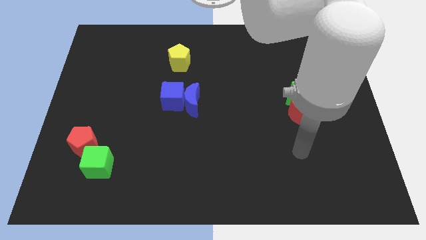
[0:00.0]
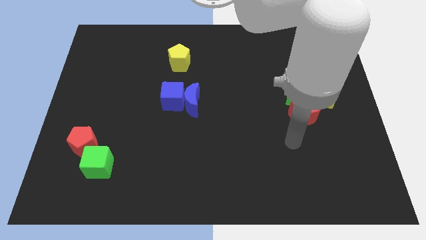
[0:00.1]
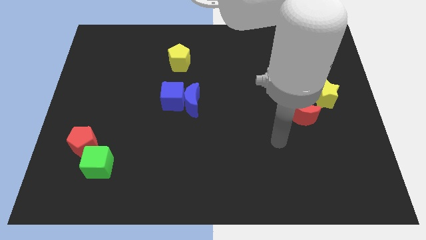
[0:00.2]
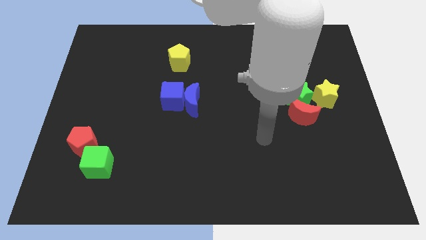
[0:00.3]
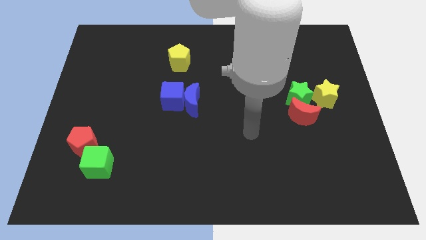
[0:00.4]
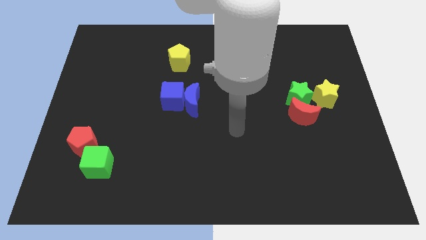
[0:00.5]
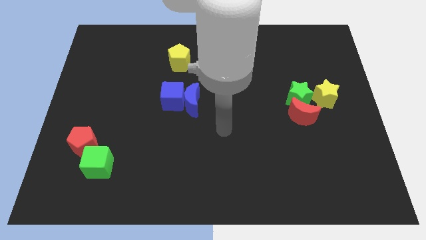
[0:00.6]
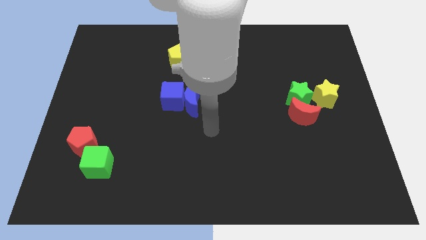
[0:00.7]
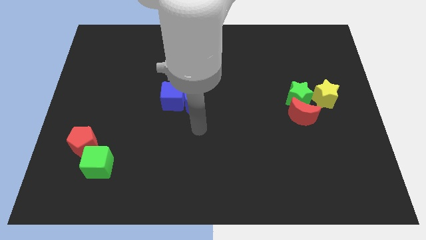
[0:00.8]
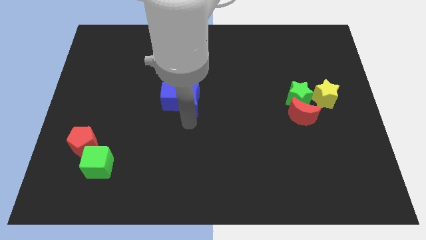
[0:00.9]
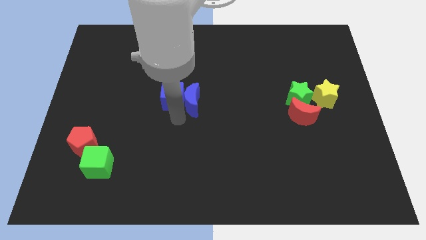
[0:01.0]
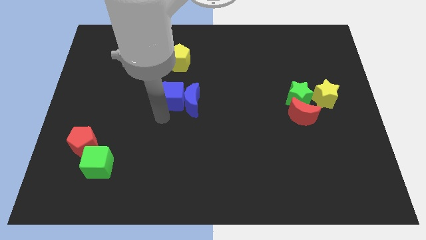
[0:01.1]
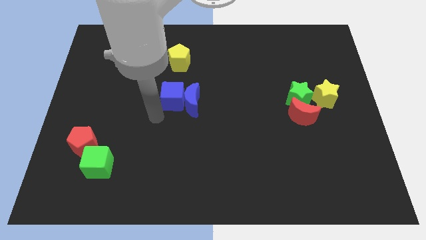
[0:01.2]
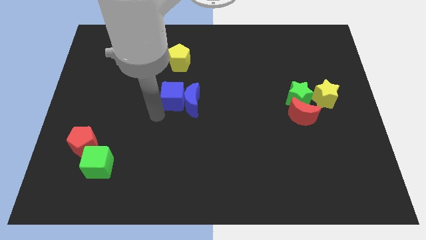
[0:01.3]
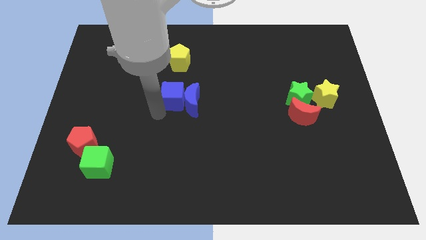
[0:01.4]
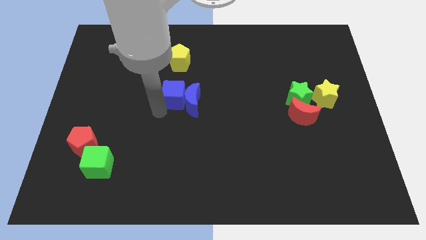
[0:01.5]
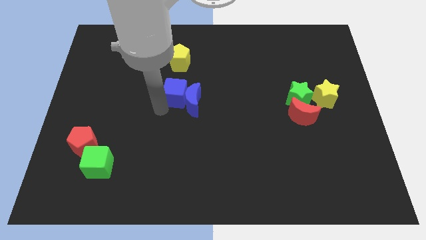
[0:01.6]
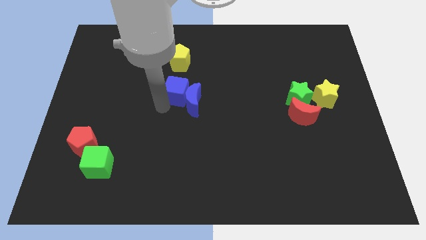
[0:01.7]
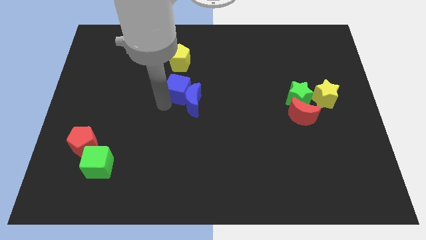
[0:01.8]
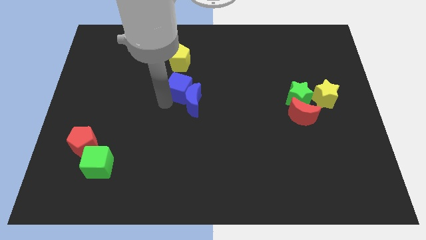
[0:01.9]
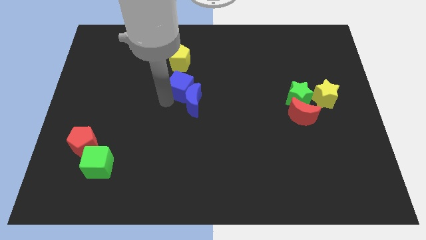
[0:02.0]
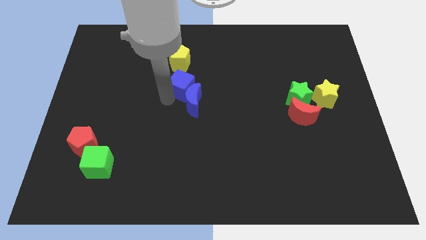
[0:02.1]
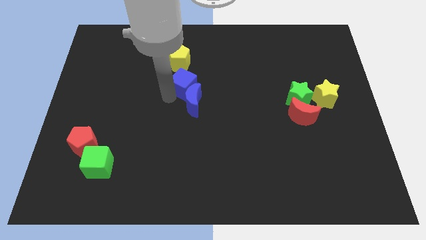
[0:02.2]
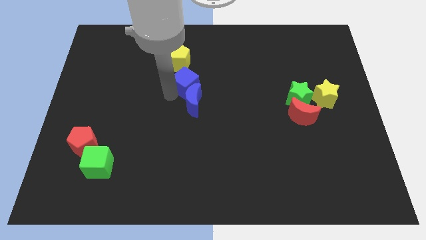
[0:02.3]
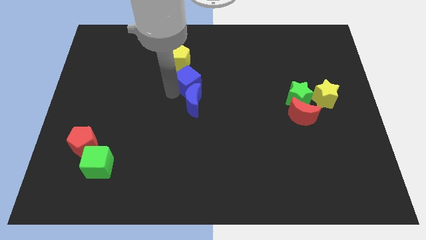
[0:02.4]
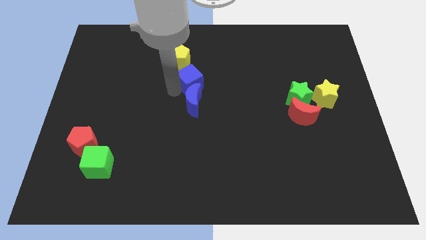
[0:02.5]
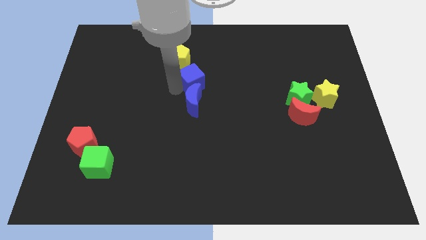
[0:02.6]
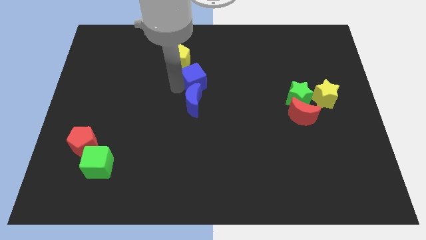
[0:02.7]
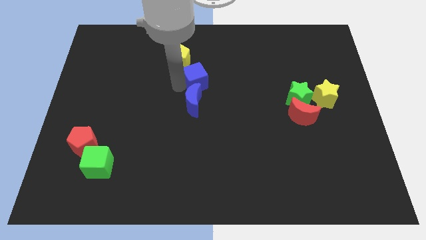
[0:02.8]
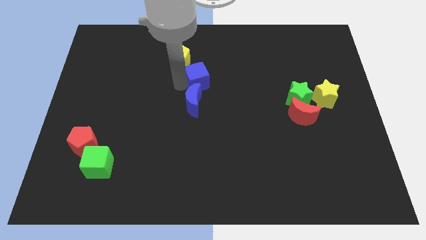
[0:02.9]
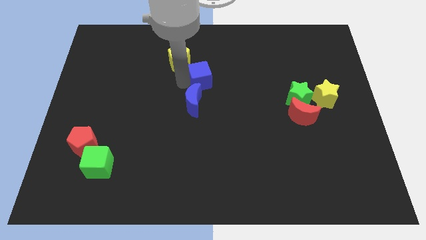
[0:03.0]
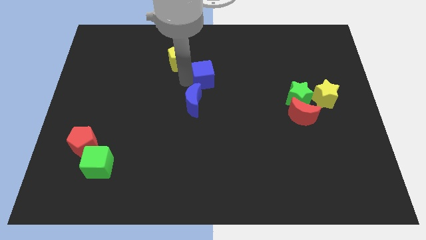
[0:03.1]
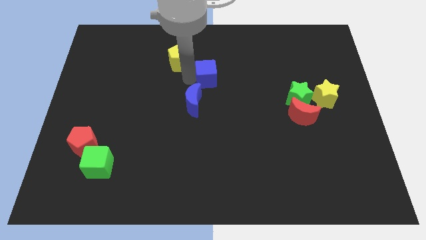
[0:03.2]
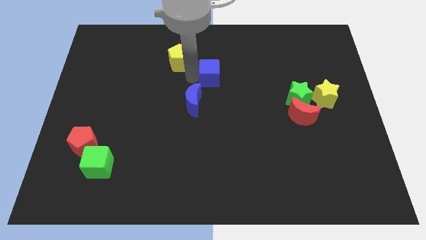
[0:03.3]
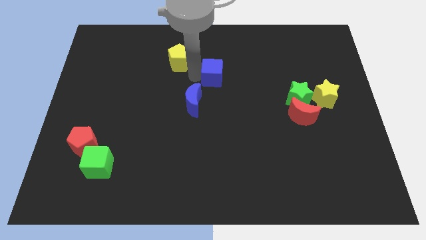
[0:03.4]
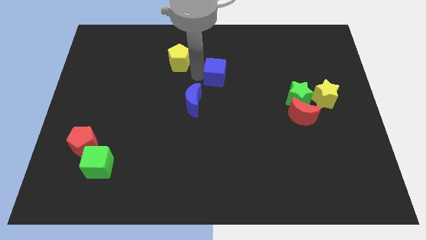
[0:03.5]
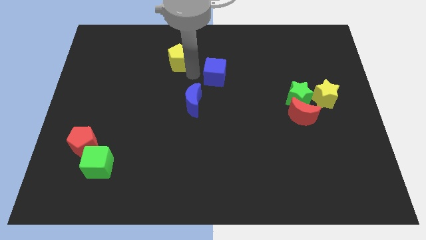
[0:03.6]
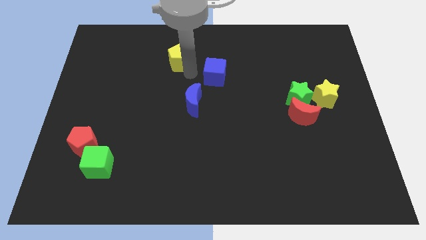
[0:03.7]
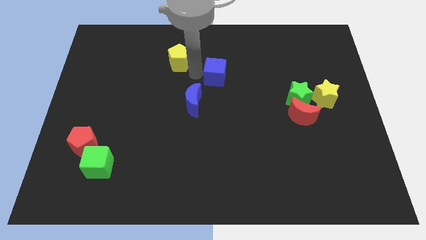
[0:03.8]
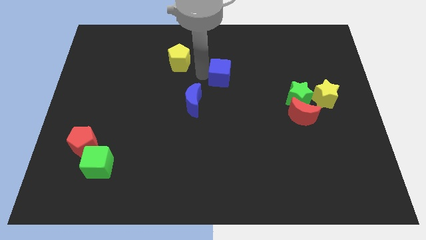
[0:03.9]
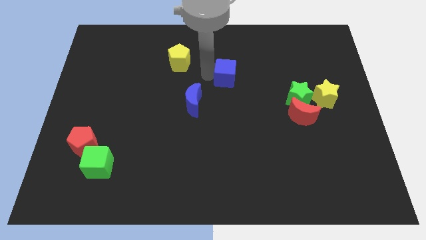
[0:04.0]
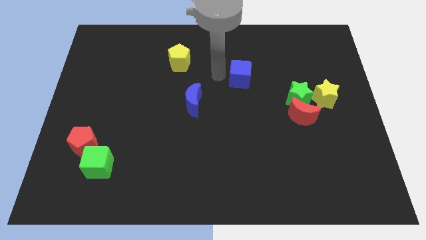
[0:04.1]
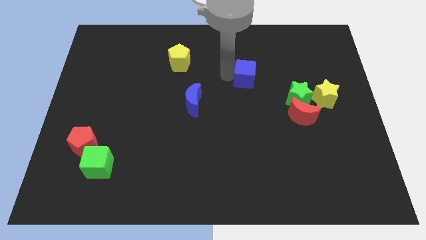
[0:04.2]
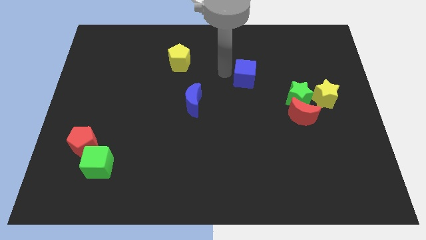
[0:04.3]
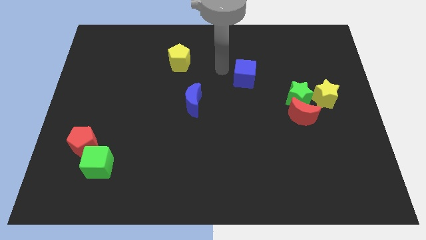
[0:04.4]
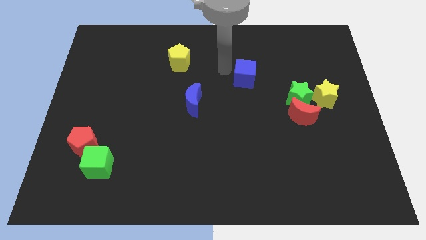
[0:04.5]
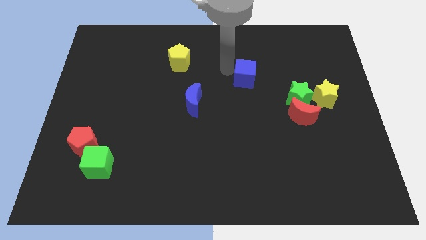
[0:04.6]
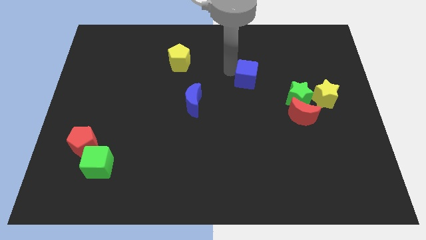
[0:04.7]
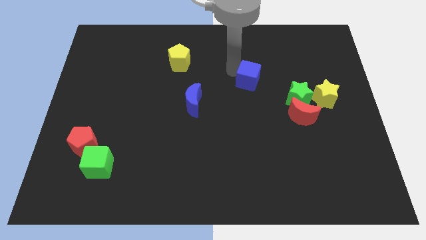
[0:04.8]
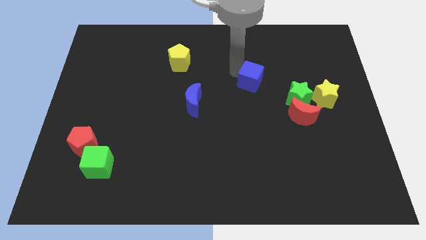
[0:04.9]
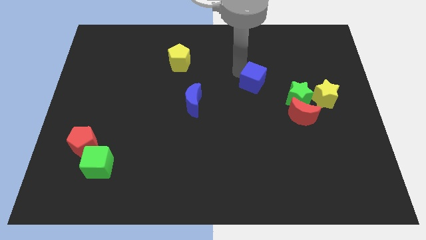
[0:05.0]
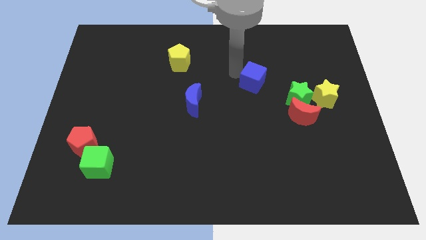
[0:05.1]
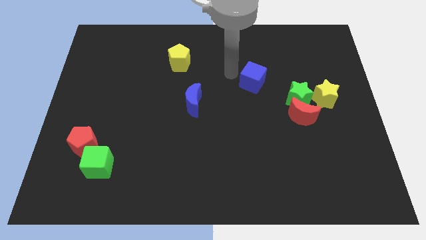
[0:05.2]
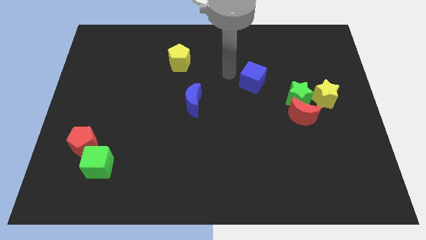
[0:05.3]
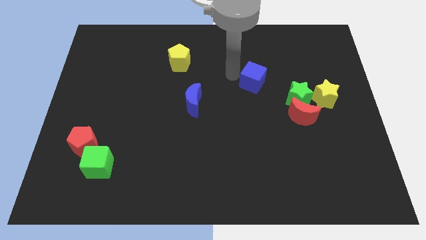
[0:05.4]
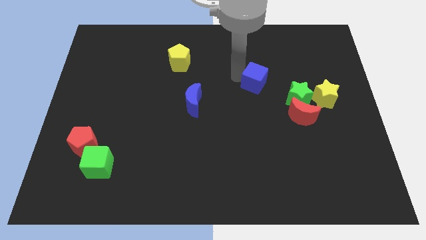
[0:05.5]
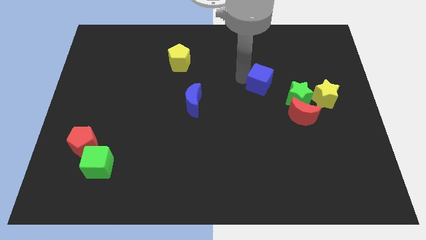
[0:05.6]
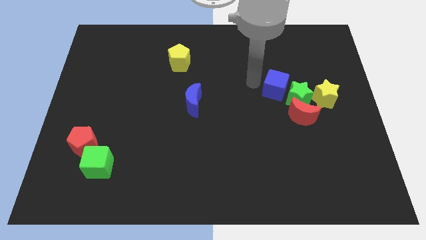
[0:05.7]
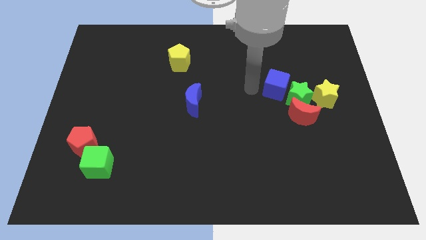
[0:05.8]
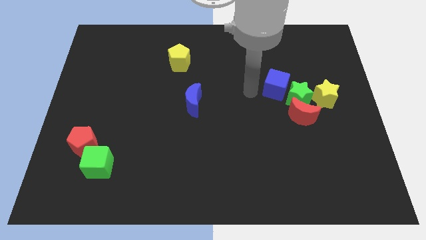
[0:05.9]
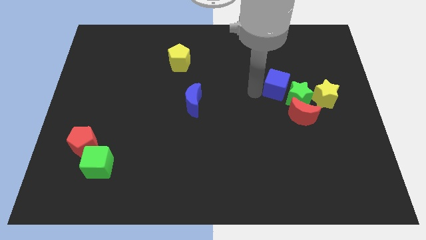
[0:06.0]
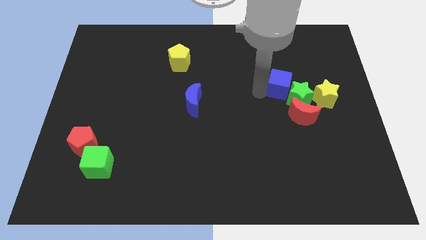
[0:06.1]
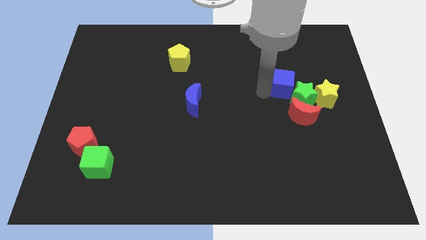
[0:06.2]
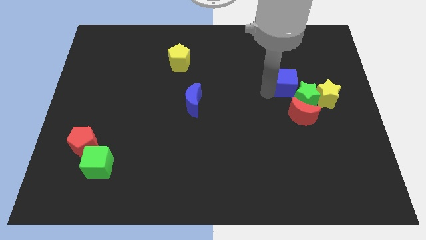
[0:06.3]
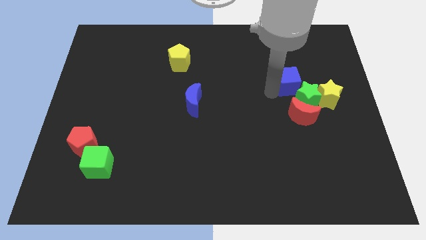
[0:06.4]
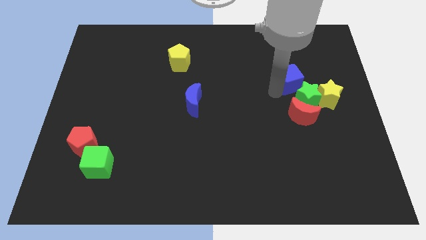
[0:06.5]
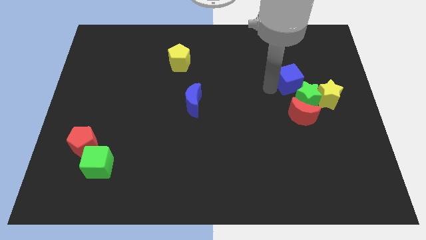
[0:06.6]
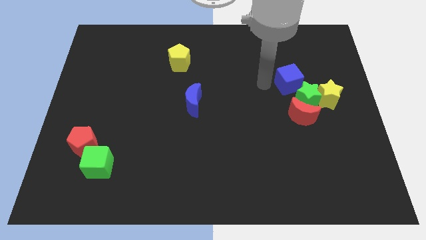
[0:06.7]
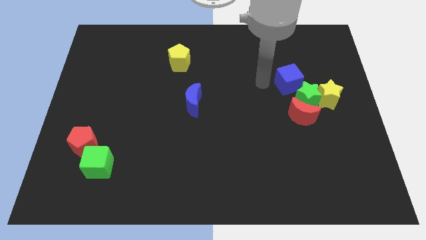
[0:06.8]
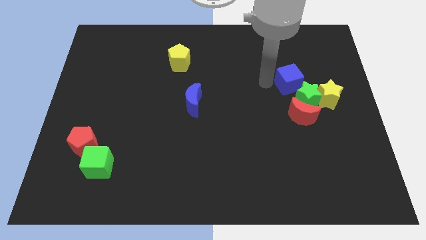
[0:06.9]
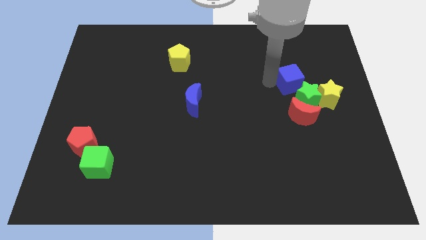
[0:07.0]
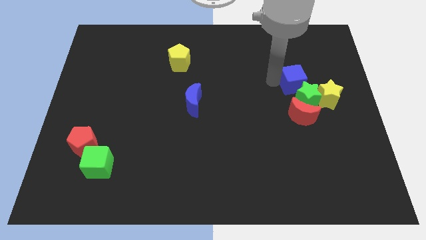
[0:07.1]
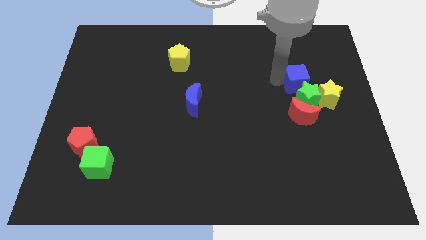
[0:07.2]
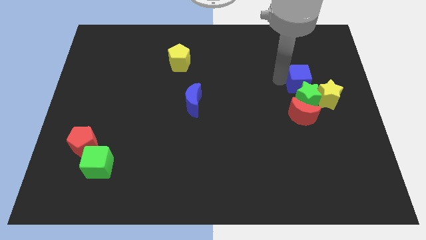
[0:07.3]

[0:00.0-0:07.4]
slide the blue cube diagonally up and to the right of the green star

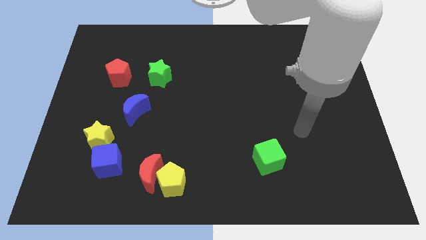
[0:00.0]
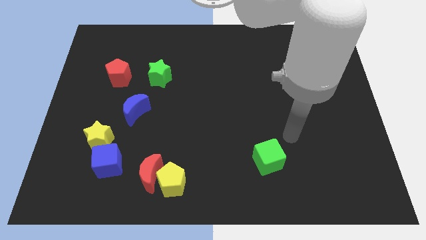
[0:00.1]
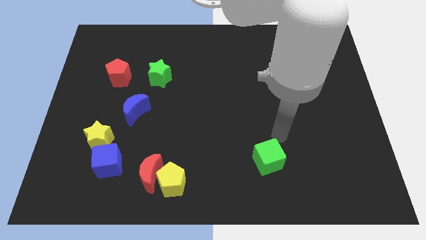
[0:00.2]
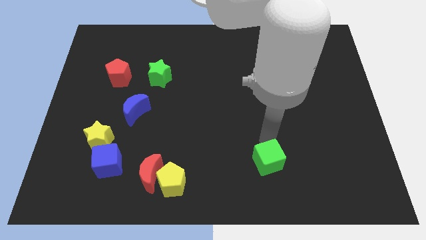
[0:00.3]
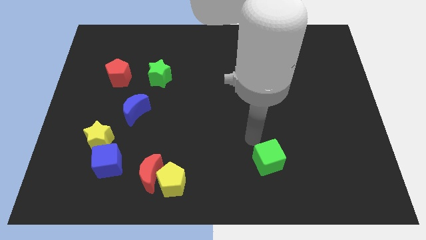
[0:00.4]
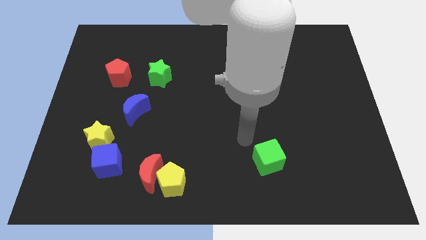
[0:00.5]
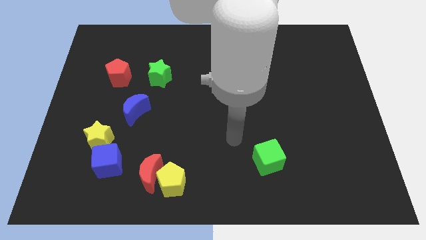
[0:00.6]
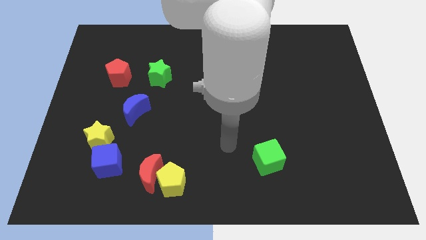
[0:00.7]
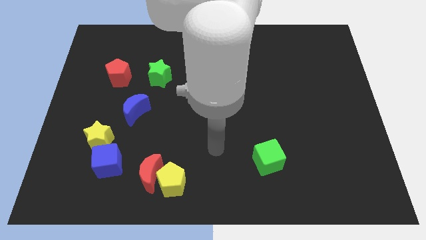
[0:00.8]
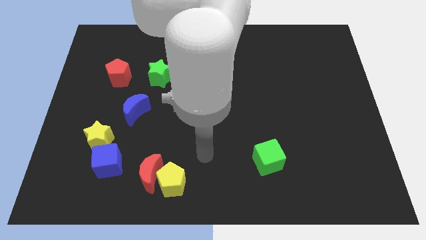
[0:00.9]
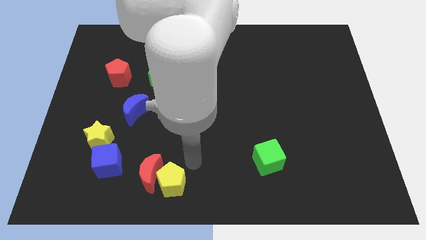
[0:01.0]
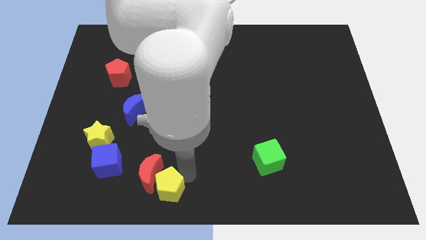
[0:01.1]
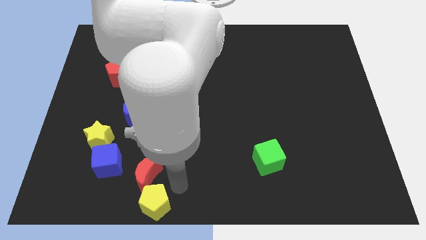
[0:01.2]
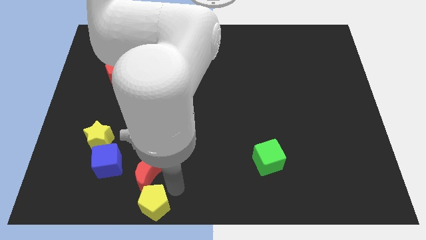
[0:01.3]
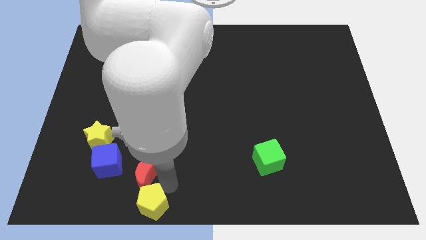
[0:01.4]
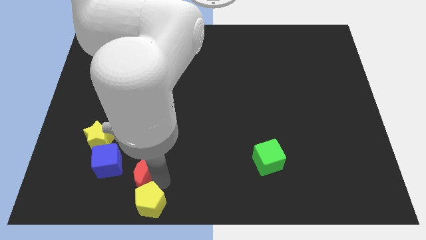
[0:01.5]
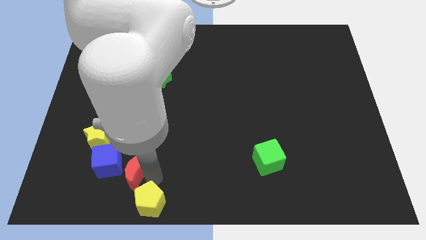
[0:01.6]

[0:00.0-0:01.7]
put the red moon diagonally down and to the right of the yellow star
